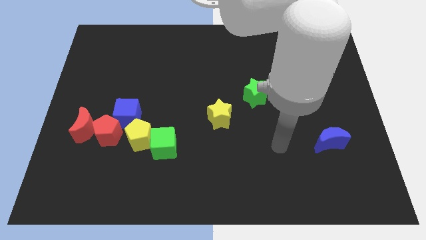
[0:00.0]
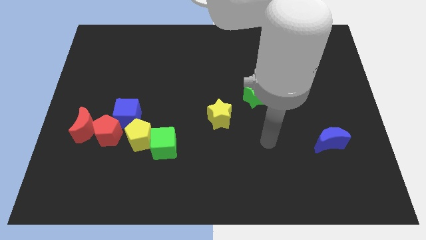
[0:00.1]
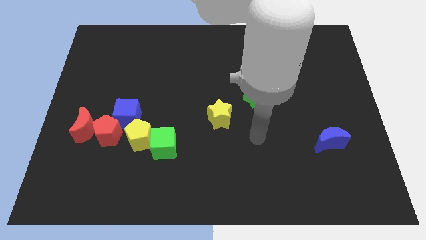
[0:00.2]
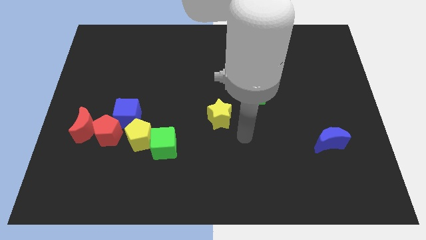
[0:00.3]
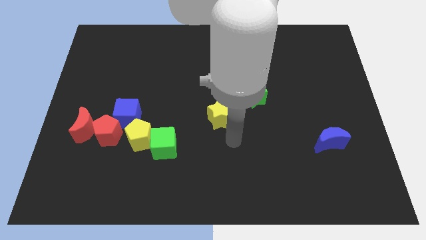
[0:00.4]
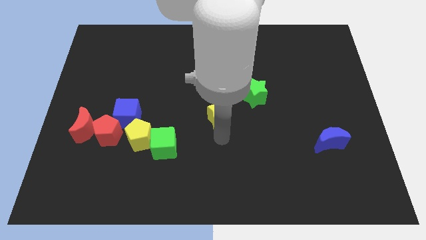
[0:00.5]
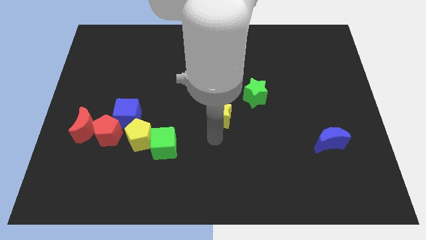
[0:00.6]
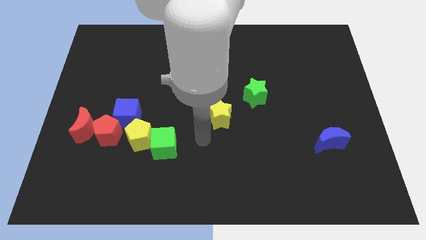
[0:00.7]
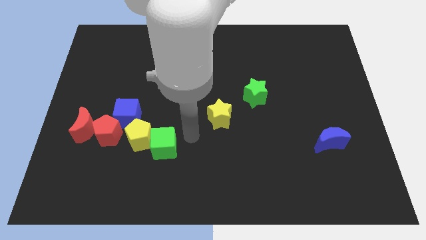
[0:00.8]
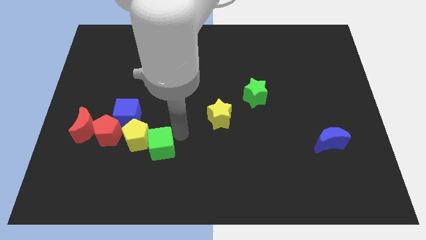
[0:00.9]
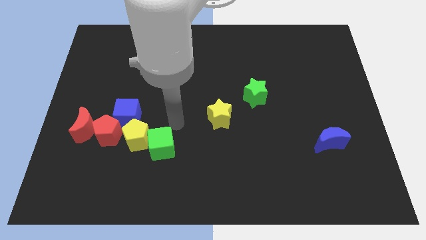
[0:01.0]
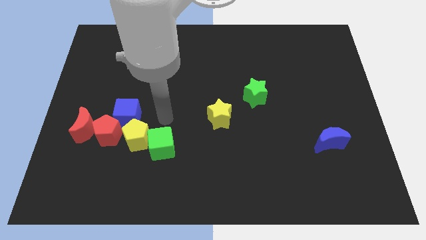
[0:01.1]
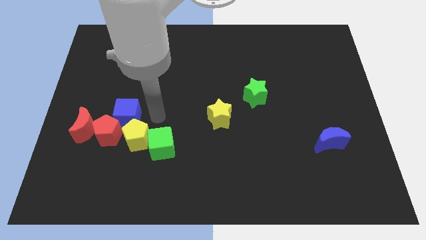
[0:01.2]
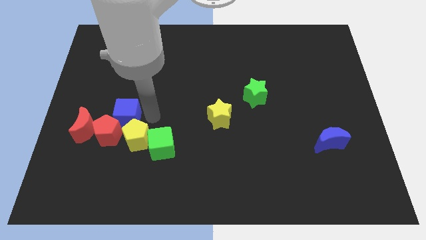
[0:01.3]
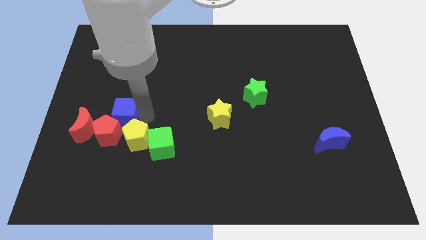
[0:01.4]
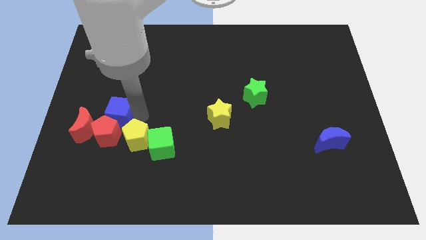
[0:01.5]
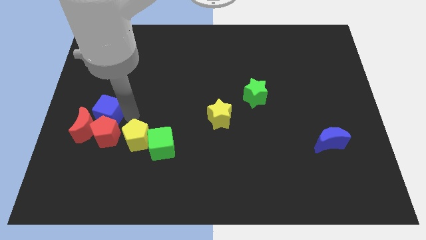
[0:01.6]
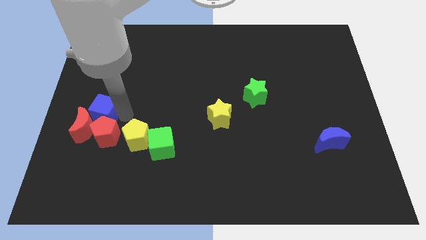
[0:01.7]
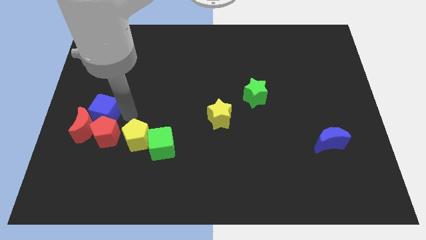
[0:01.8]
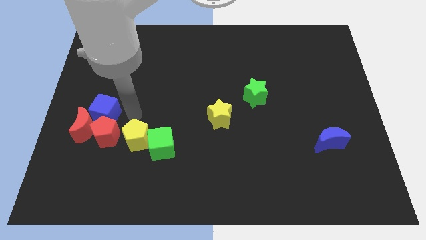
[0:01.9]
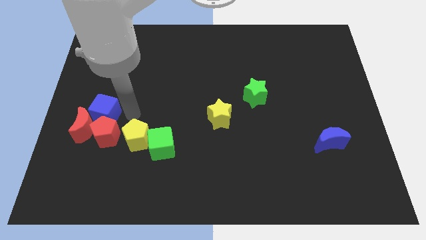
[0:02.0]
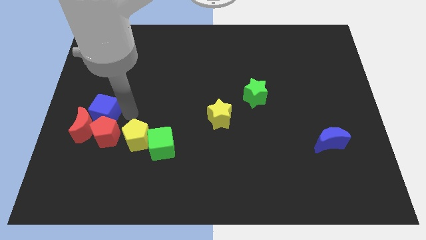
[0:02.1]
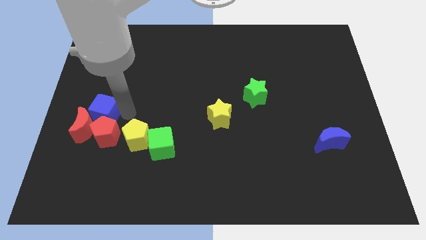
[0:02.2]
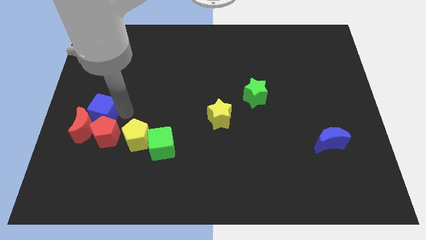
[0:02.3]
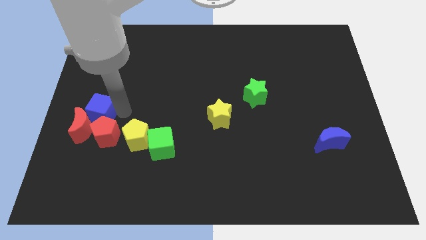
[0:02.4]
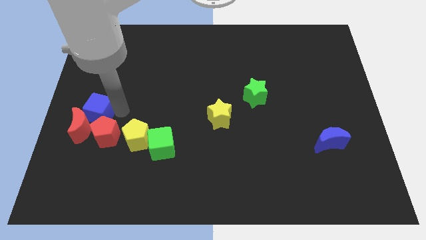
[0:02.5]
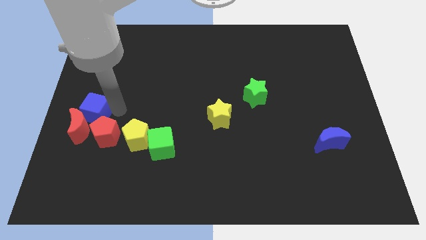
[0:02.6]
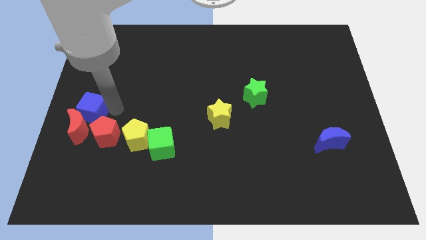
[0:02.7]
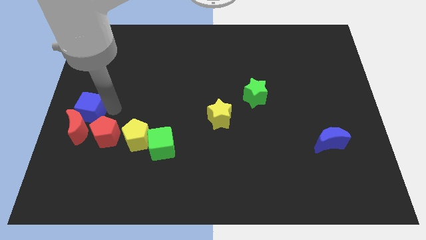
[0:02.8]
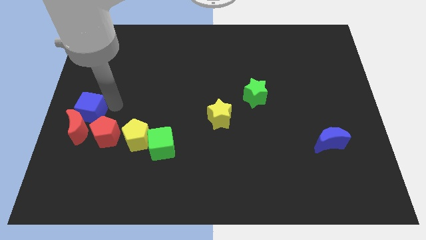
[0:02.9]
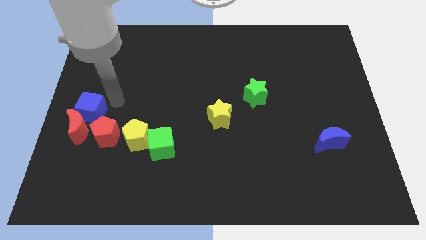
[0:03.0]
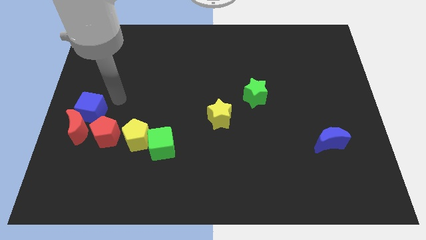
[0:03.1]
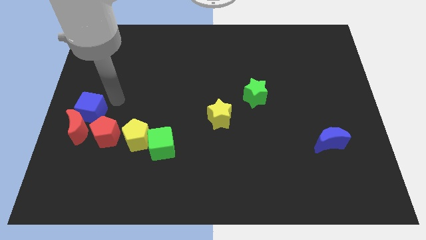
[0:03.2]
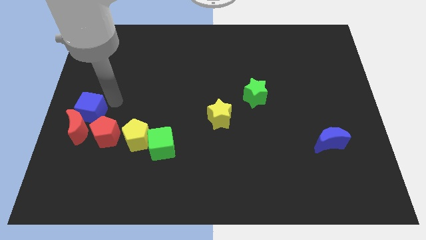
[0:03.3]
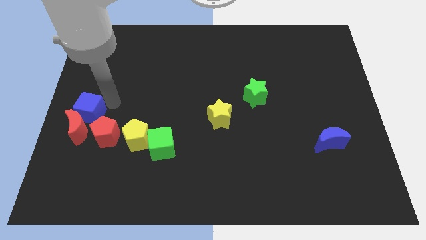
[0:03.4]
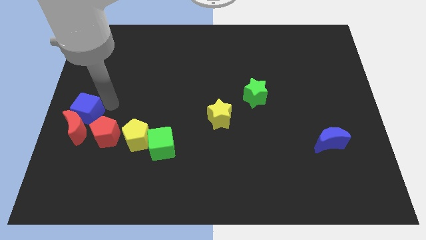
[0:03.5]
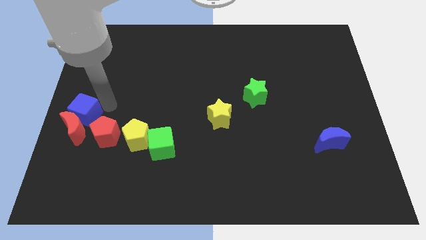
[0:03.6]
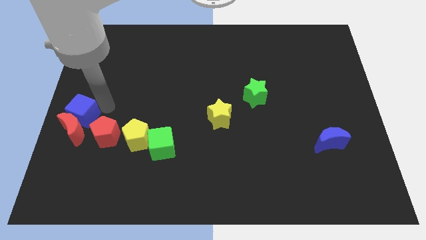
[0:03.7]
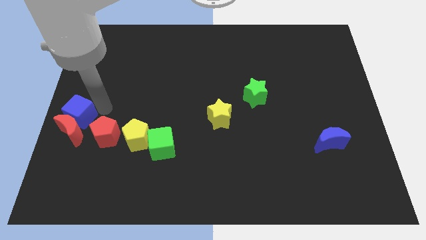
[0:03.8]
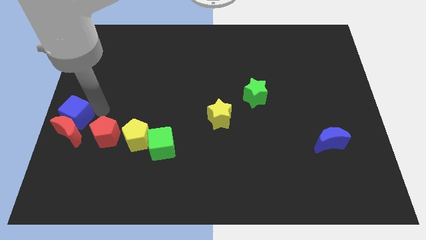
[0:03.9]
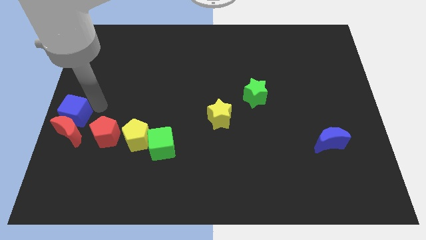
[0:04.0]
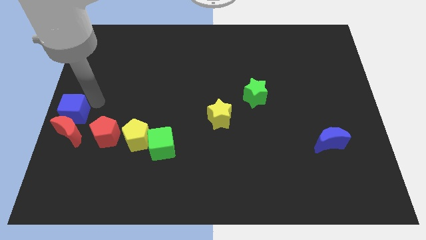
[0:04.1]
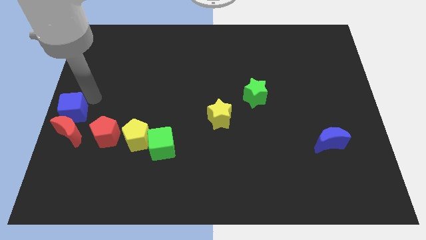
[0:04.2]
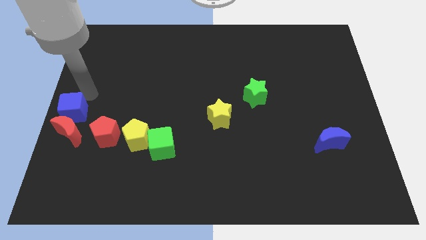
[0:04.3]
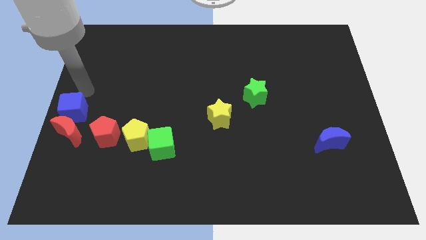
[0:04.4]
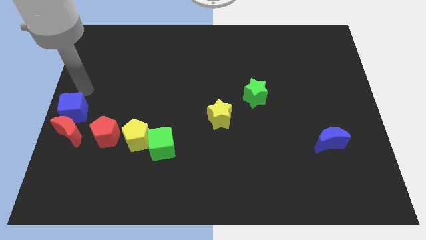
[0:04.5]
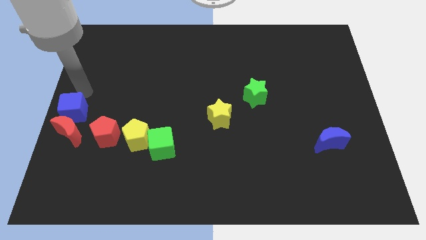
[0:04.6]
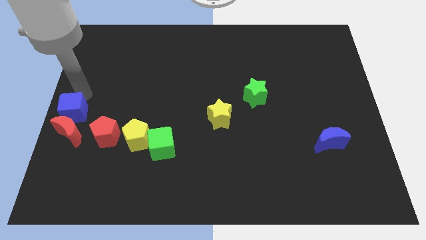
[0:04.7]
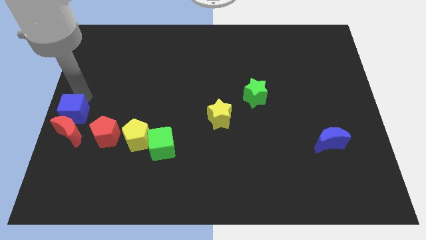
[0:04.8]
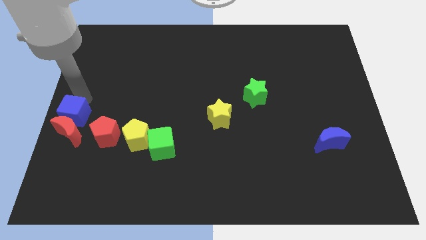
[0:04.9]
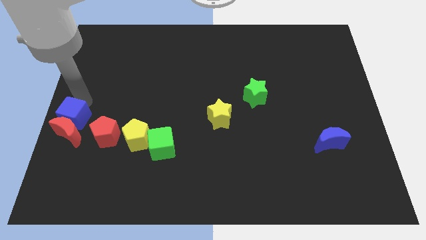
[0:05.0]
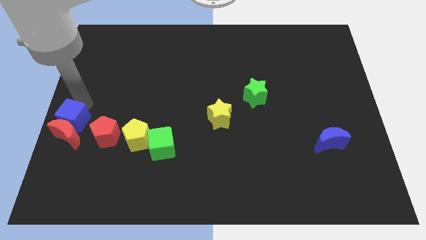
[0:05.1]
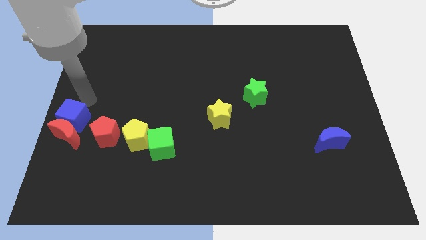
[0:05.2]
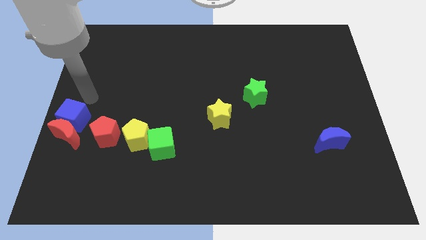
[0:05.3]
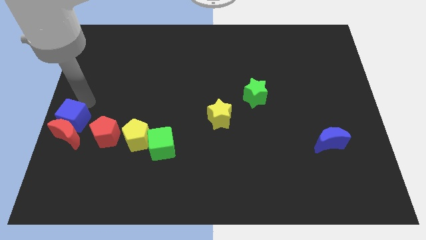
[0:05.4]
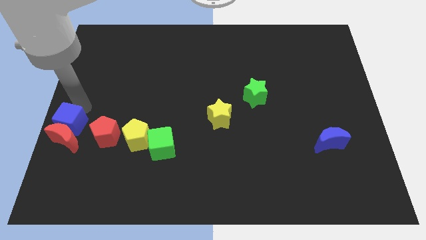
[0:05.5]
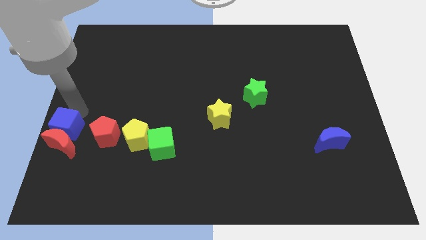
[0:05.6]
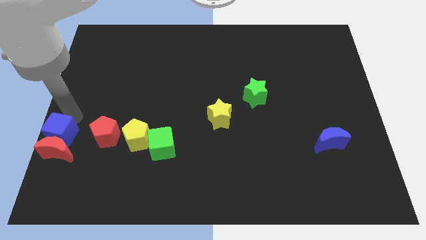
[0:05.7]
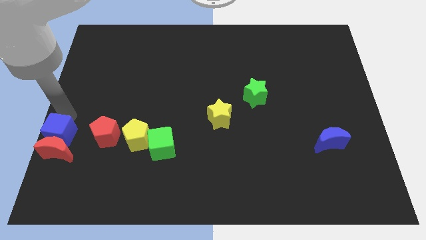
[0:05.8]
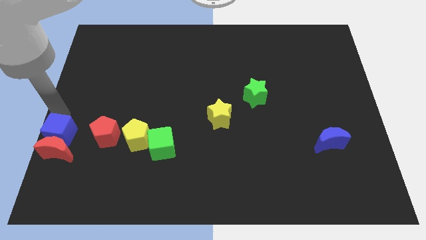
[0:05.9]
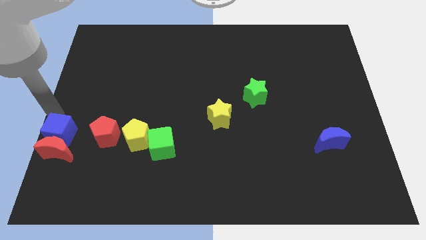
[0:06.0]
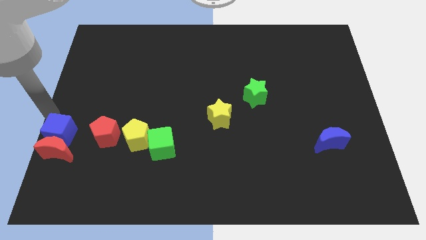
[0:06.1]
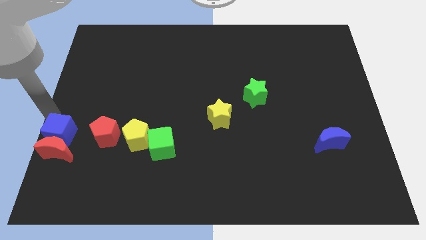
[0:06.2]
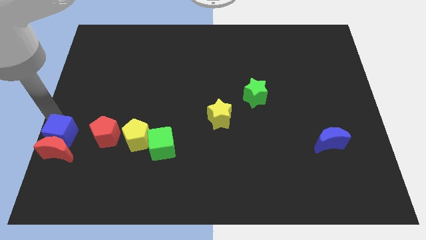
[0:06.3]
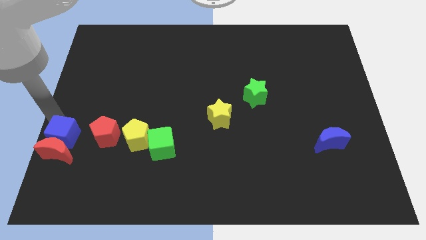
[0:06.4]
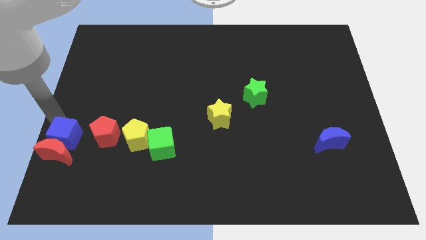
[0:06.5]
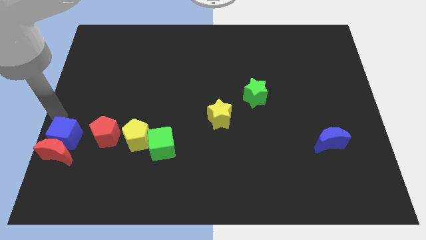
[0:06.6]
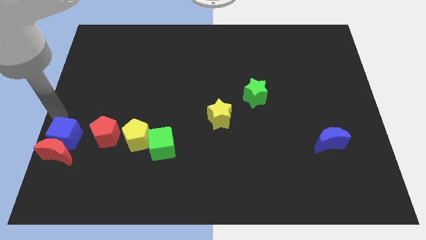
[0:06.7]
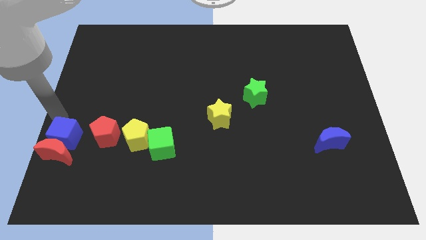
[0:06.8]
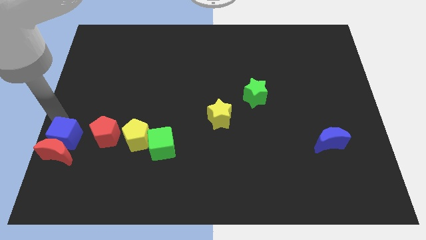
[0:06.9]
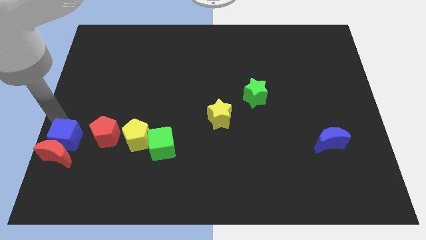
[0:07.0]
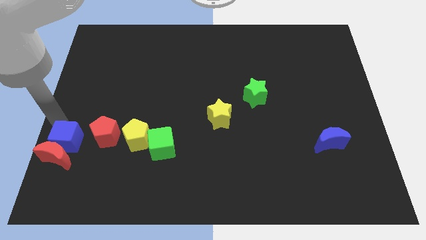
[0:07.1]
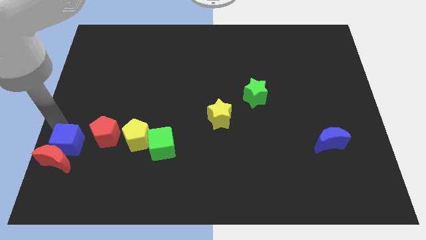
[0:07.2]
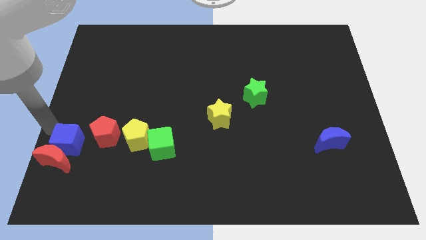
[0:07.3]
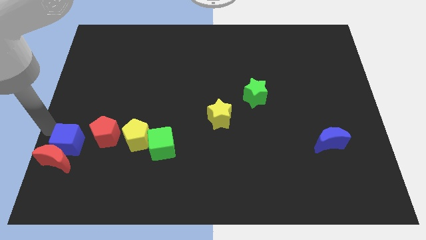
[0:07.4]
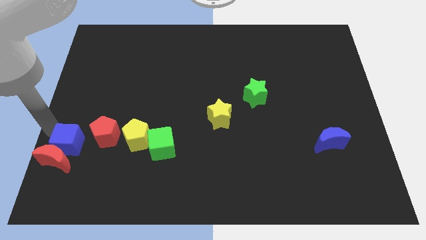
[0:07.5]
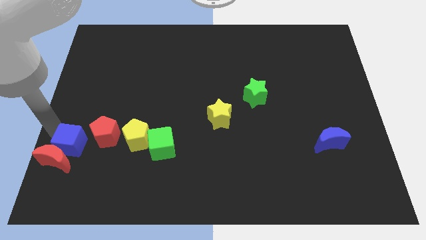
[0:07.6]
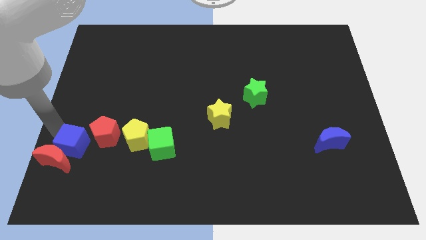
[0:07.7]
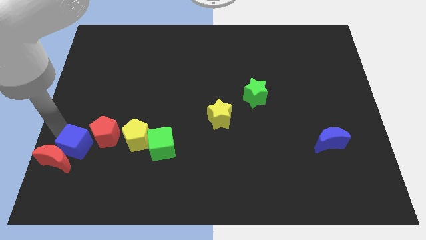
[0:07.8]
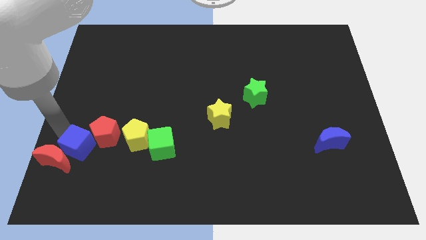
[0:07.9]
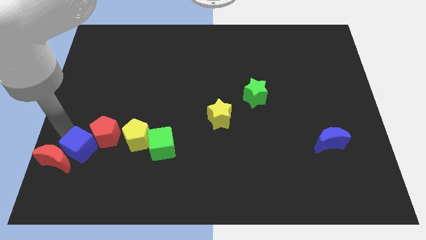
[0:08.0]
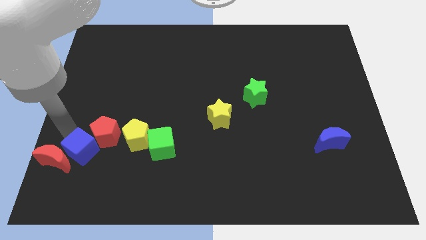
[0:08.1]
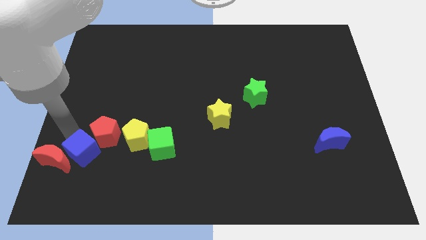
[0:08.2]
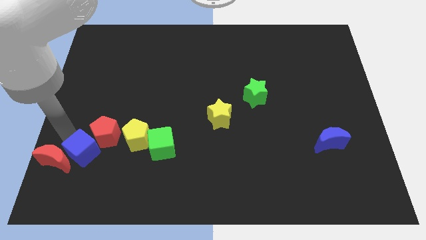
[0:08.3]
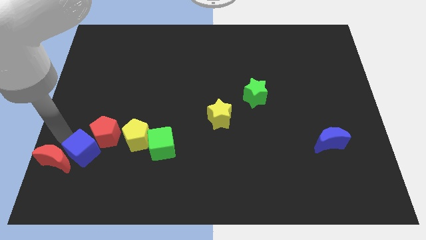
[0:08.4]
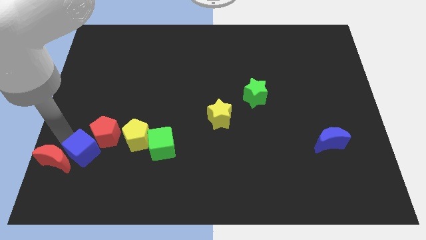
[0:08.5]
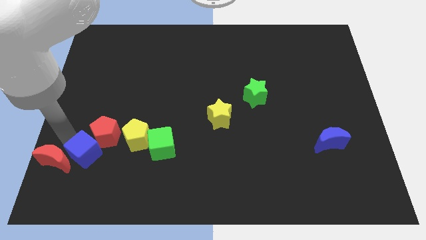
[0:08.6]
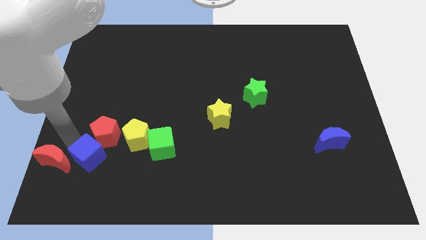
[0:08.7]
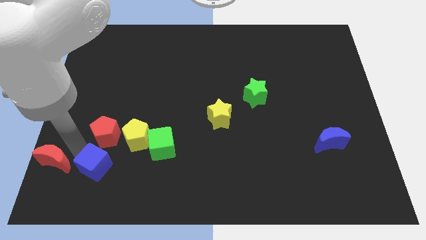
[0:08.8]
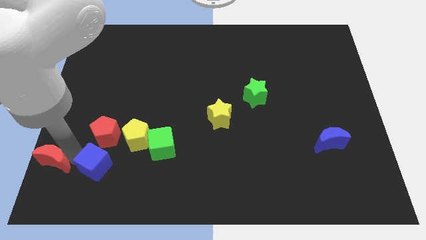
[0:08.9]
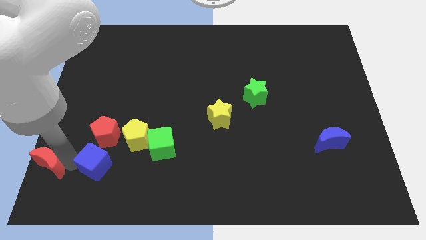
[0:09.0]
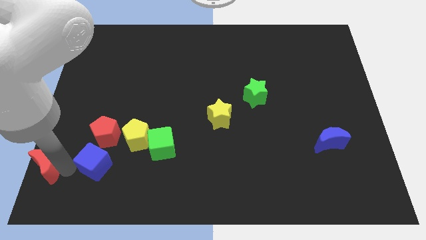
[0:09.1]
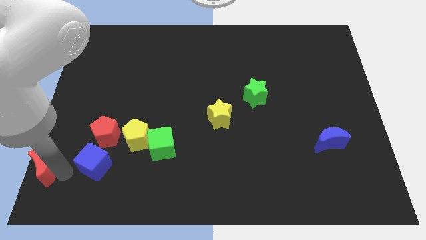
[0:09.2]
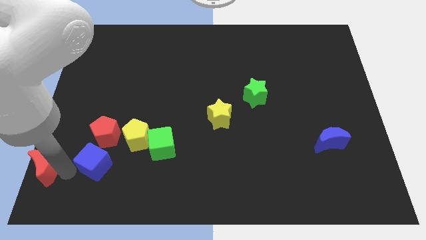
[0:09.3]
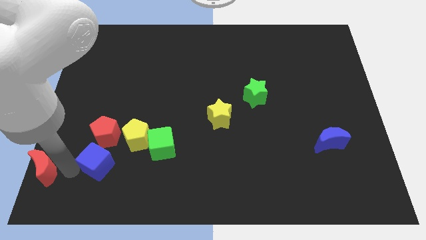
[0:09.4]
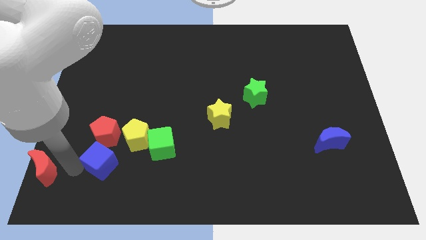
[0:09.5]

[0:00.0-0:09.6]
slide the blue cube to the bottom right side of the red pentagon
